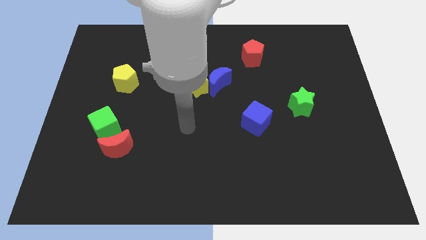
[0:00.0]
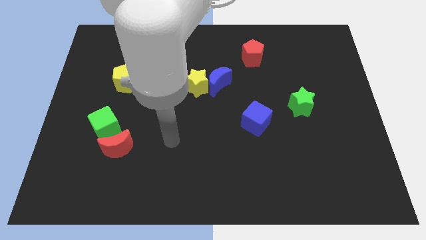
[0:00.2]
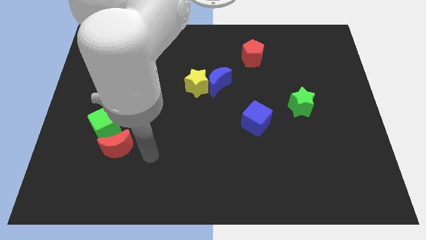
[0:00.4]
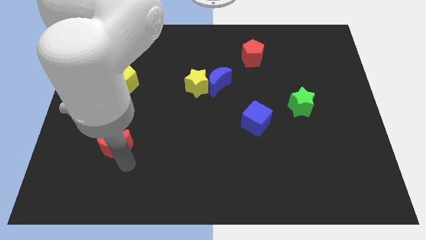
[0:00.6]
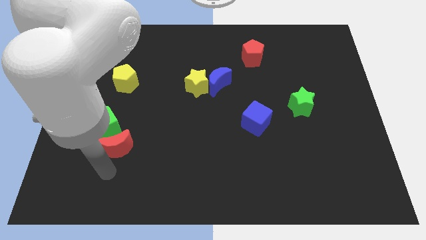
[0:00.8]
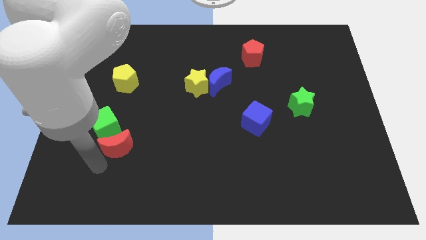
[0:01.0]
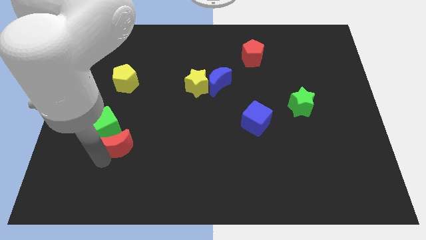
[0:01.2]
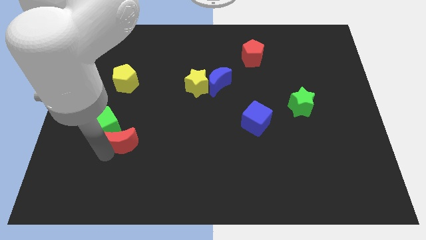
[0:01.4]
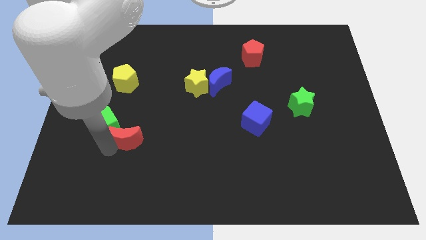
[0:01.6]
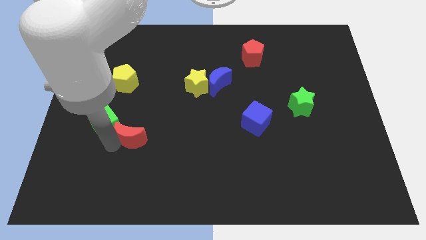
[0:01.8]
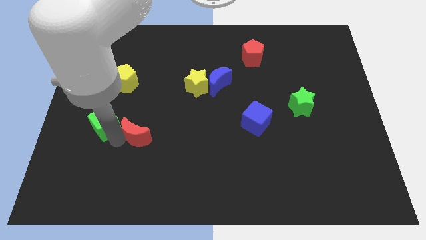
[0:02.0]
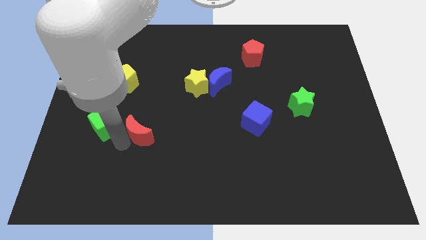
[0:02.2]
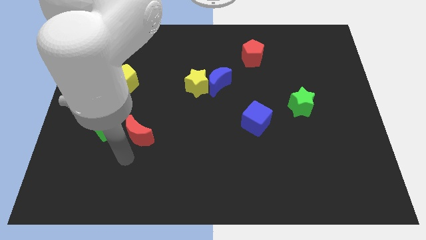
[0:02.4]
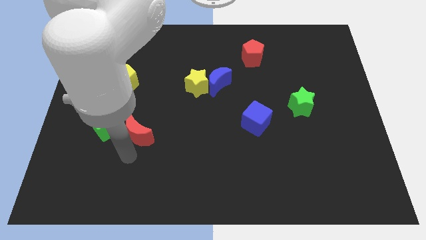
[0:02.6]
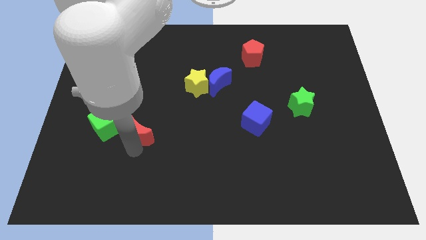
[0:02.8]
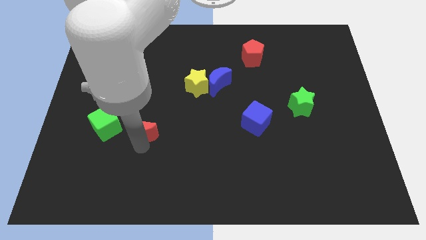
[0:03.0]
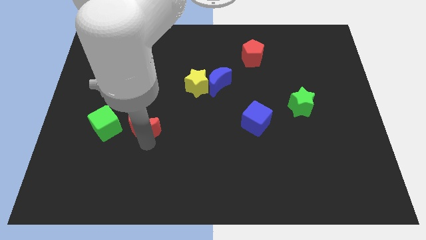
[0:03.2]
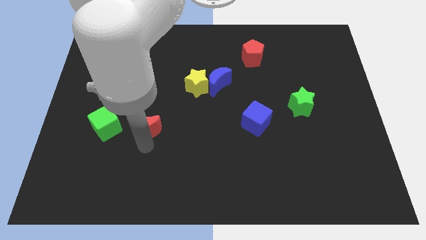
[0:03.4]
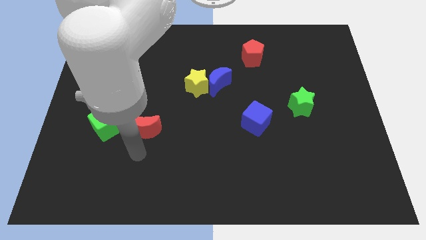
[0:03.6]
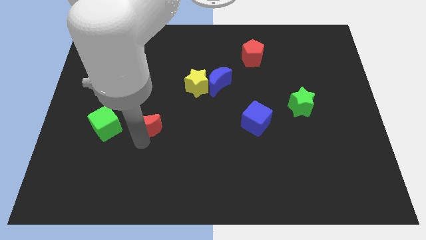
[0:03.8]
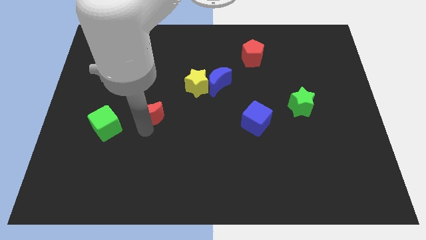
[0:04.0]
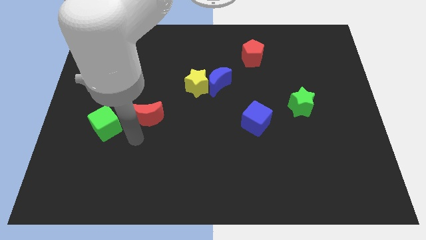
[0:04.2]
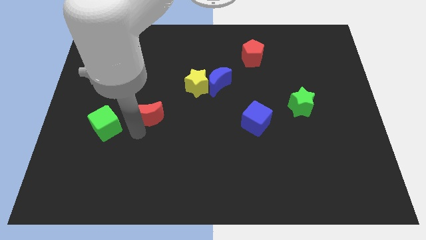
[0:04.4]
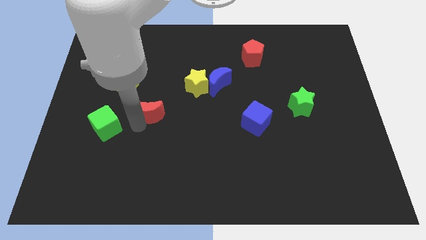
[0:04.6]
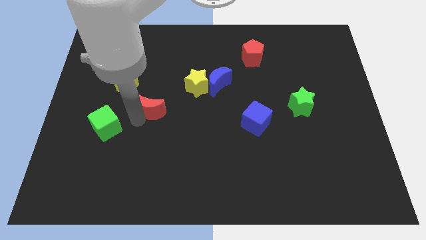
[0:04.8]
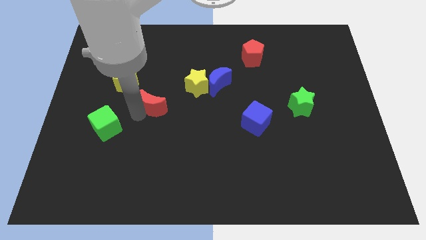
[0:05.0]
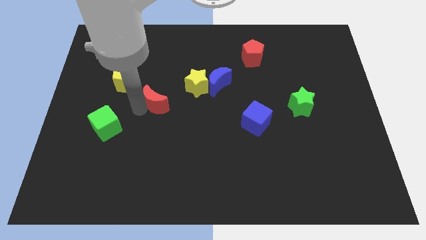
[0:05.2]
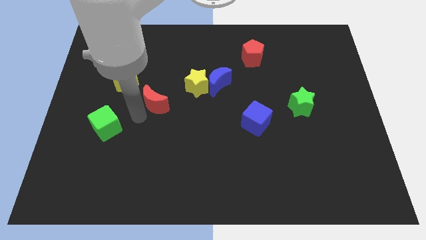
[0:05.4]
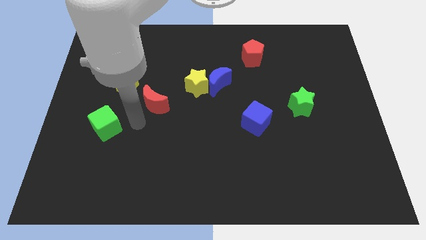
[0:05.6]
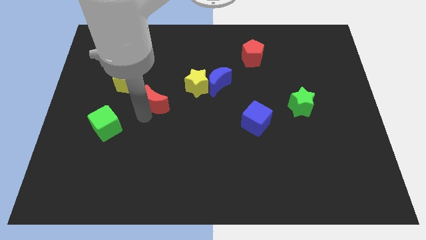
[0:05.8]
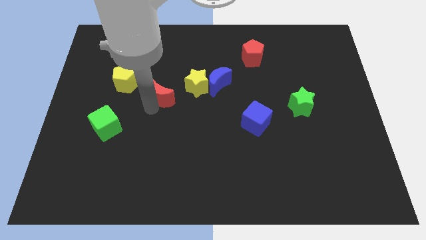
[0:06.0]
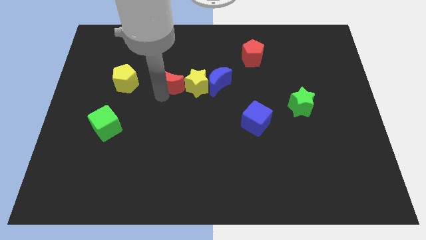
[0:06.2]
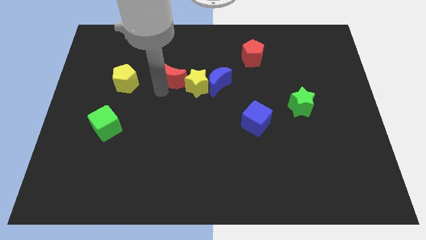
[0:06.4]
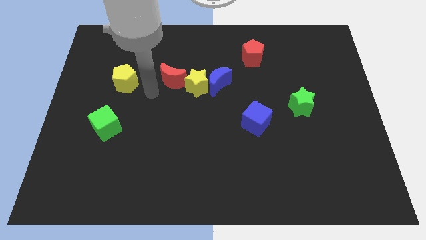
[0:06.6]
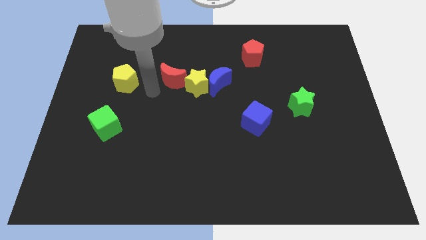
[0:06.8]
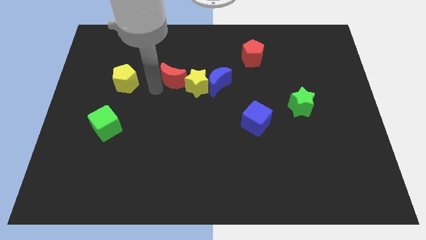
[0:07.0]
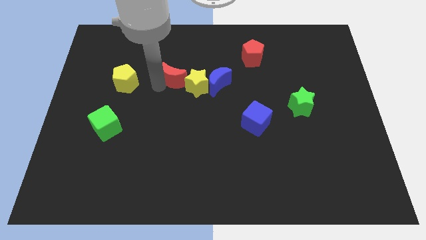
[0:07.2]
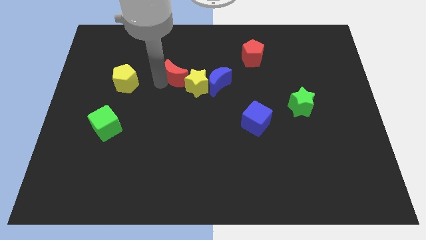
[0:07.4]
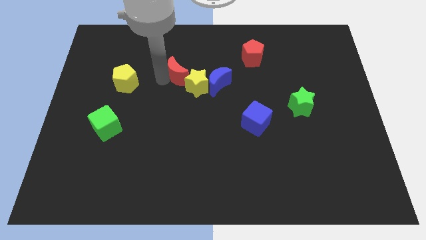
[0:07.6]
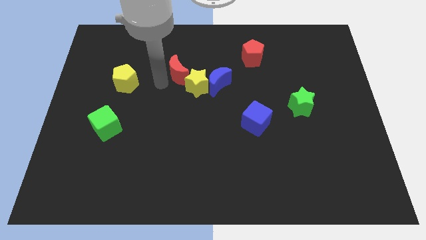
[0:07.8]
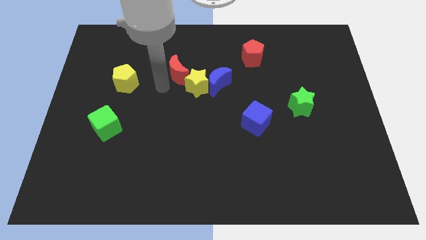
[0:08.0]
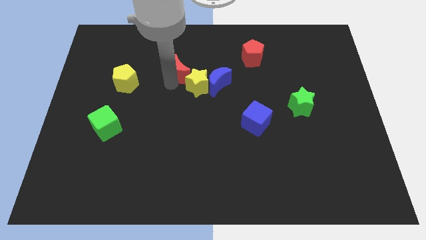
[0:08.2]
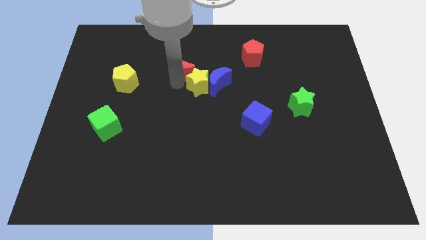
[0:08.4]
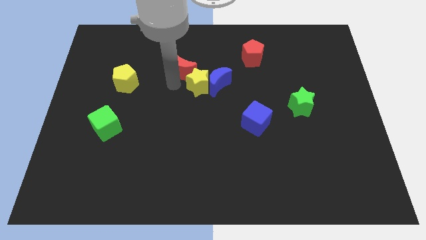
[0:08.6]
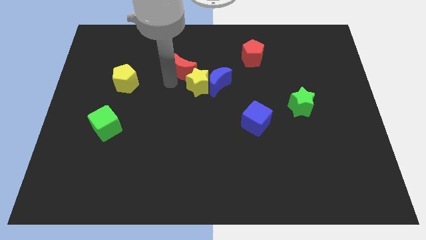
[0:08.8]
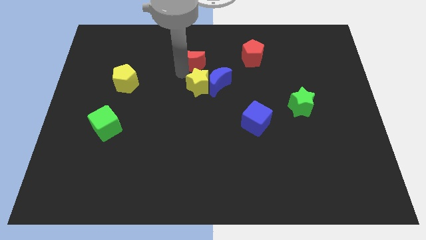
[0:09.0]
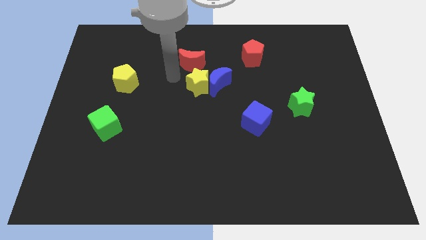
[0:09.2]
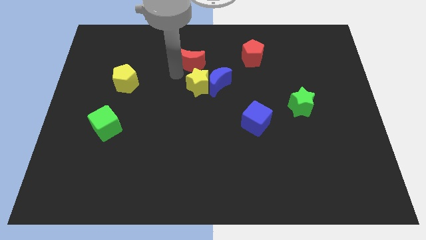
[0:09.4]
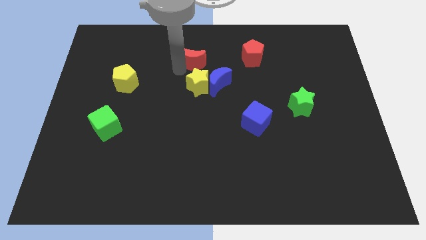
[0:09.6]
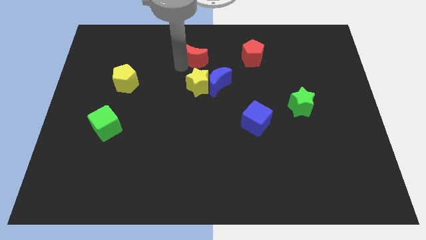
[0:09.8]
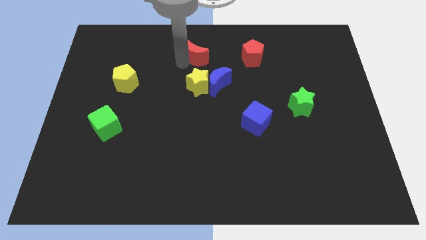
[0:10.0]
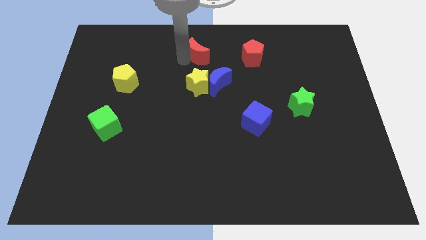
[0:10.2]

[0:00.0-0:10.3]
move the red moon to the top

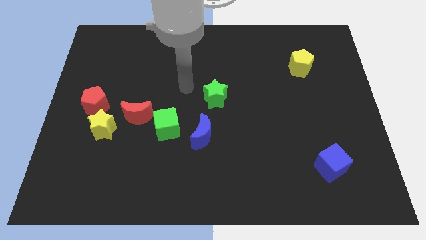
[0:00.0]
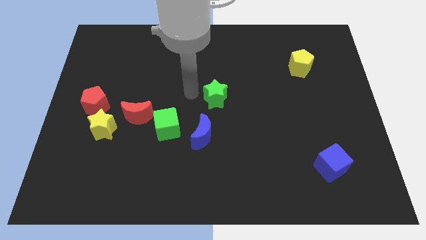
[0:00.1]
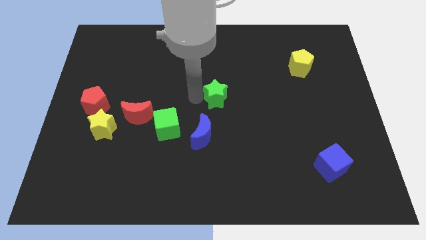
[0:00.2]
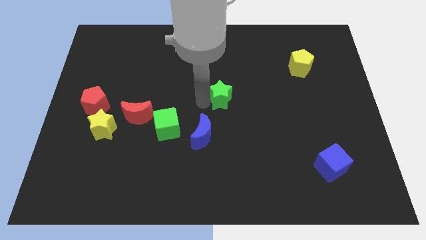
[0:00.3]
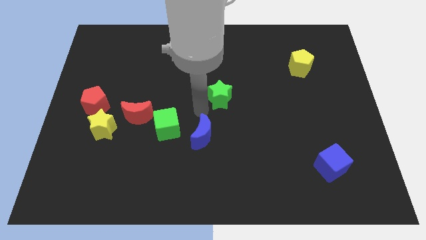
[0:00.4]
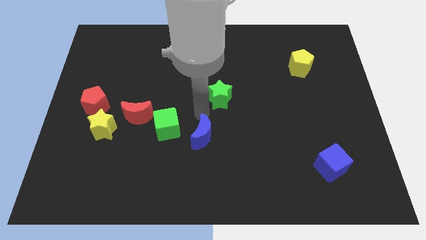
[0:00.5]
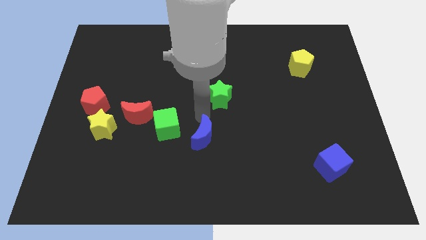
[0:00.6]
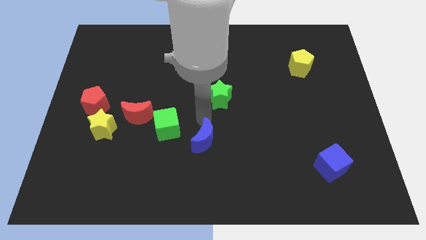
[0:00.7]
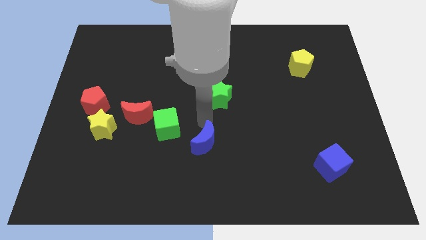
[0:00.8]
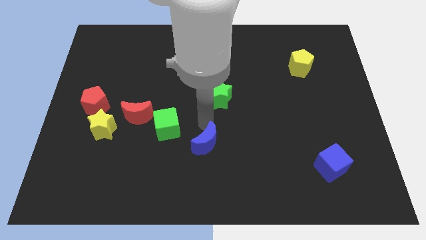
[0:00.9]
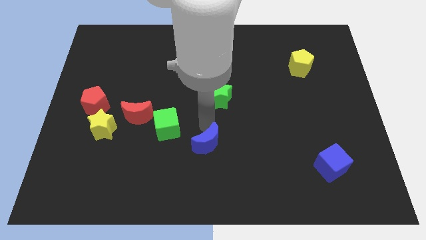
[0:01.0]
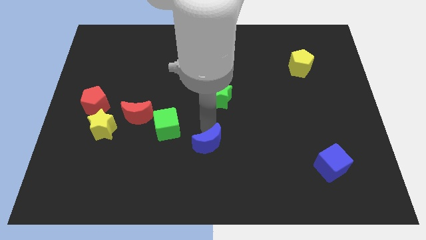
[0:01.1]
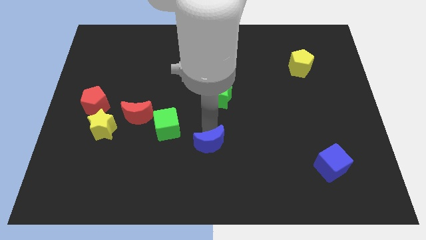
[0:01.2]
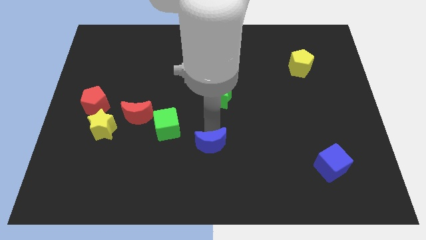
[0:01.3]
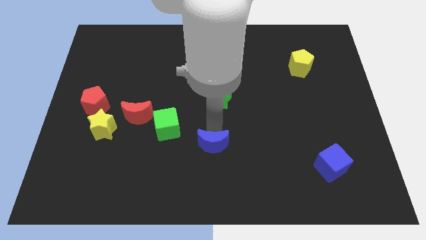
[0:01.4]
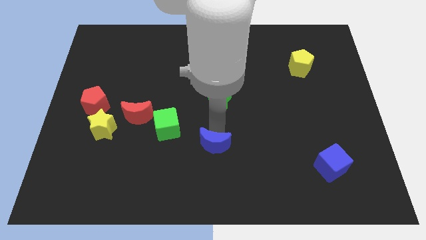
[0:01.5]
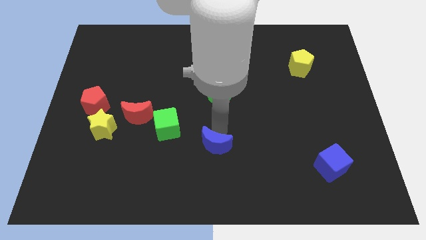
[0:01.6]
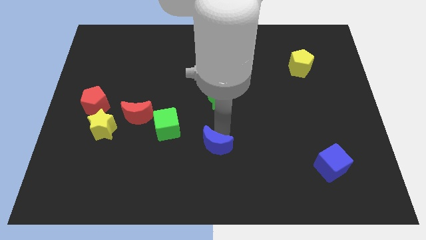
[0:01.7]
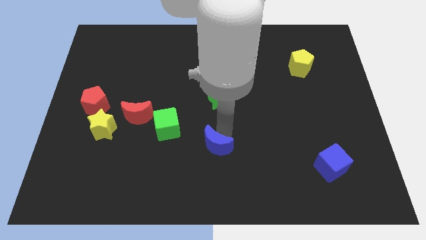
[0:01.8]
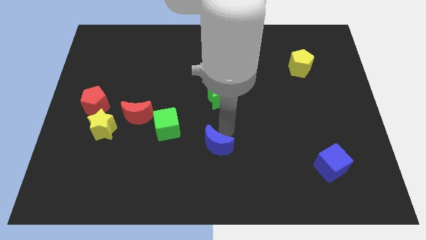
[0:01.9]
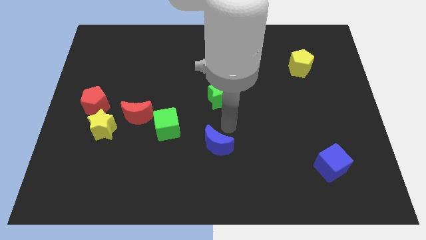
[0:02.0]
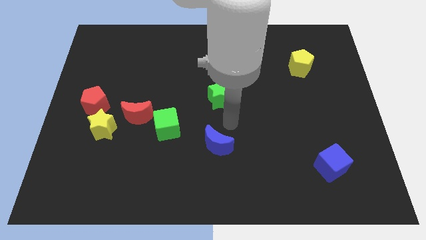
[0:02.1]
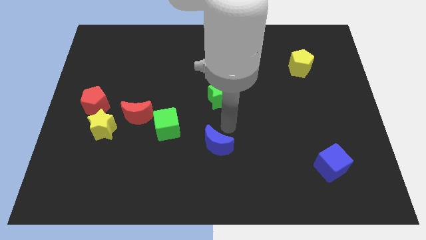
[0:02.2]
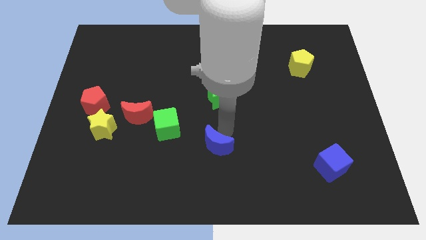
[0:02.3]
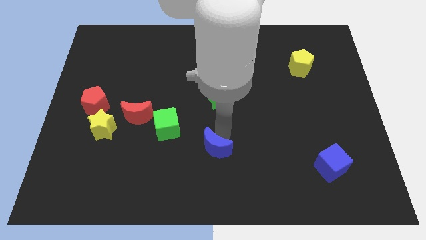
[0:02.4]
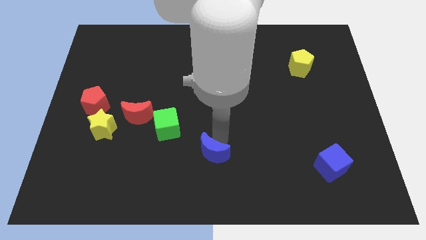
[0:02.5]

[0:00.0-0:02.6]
move the blue moon to the bottom
